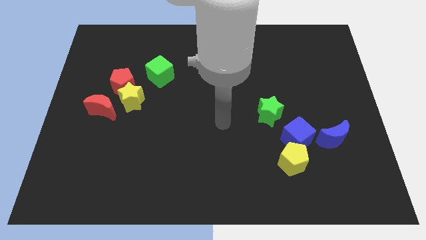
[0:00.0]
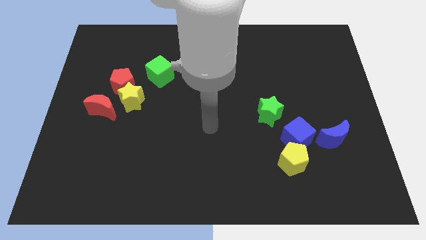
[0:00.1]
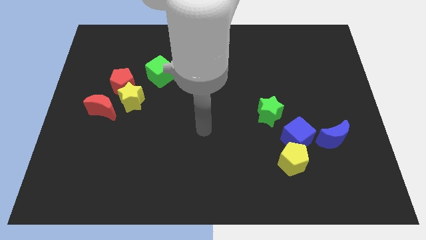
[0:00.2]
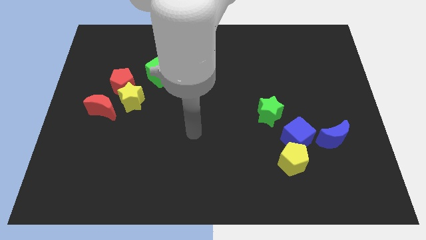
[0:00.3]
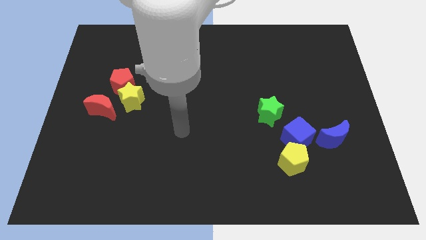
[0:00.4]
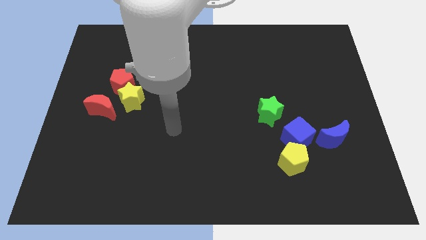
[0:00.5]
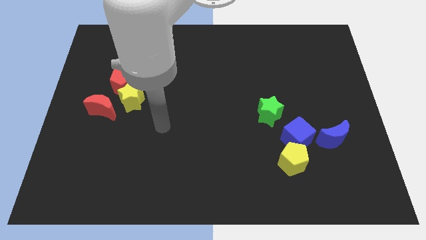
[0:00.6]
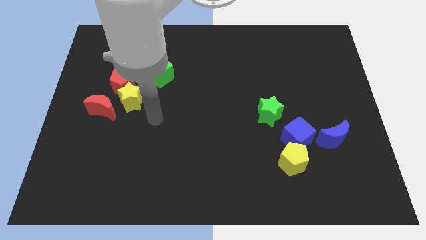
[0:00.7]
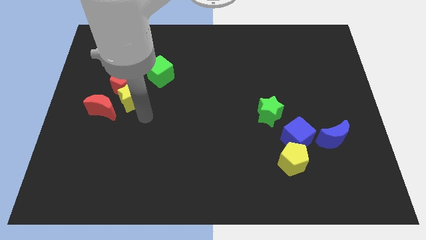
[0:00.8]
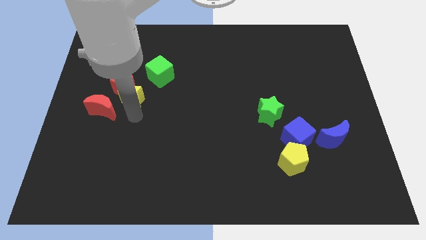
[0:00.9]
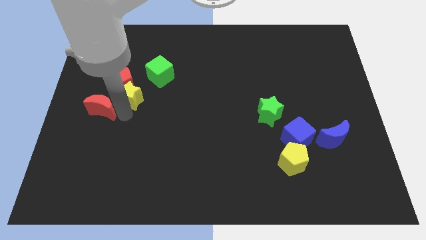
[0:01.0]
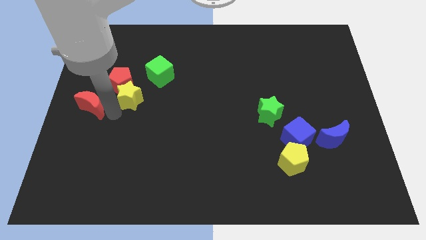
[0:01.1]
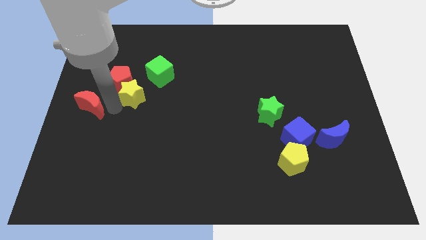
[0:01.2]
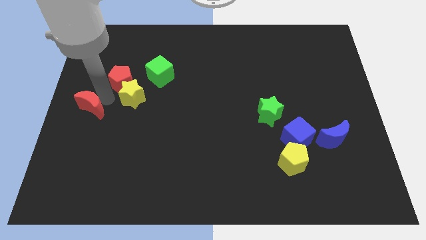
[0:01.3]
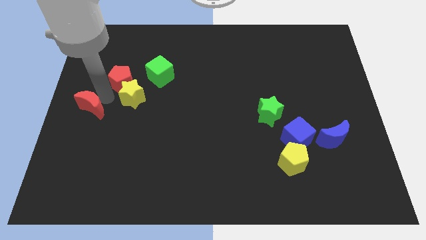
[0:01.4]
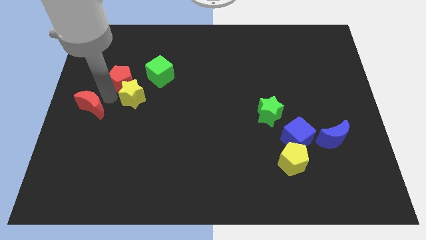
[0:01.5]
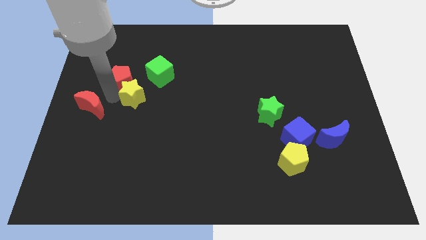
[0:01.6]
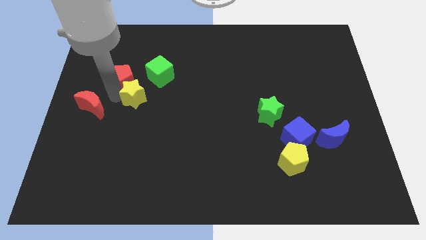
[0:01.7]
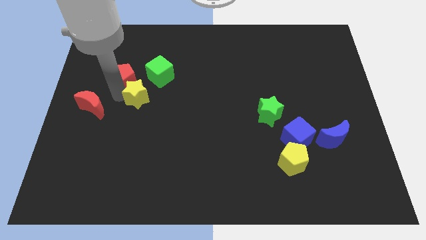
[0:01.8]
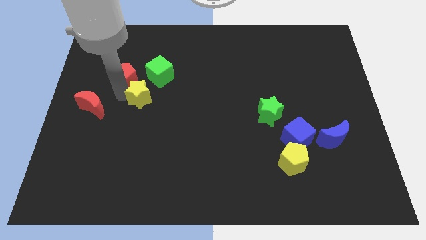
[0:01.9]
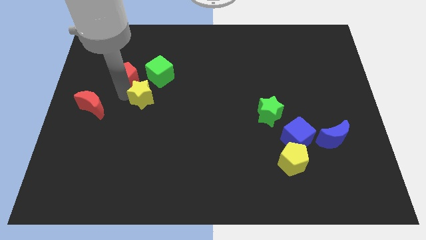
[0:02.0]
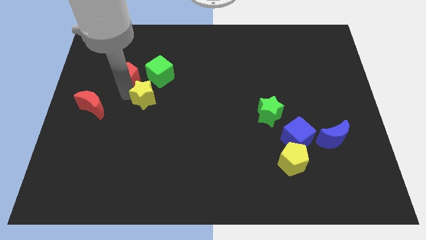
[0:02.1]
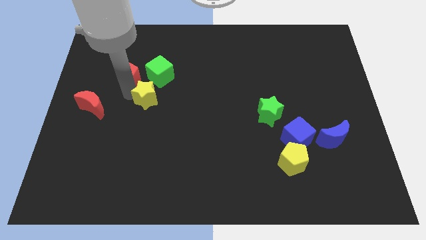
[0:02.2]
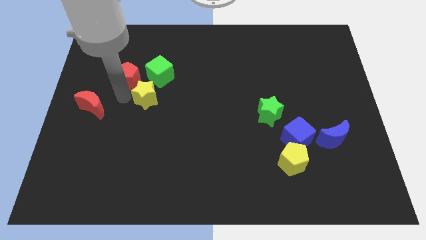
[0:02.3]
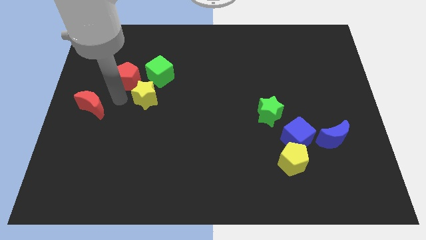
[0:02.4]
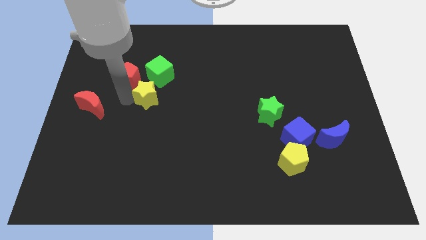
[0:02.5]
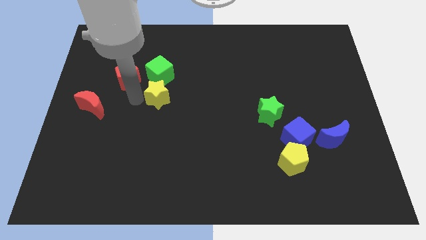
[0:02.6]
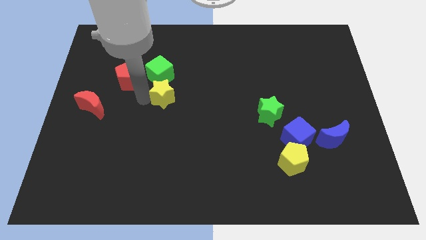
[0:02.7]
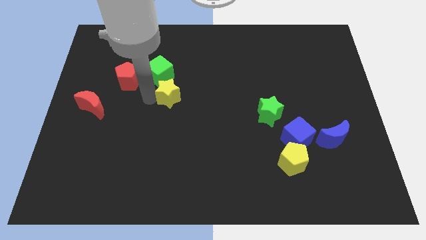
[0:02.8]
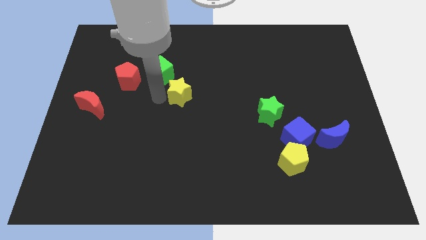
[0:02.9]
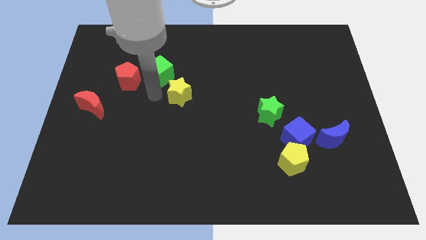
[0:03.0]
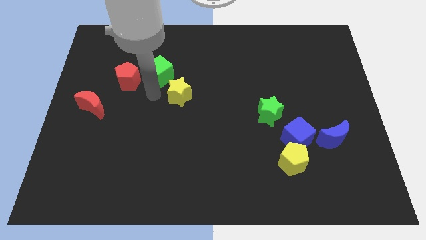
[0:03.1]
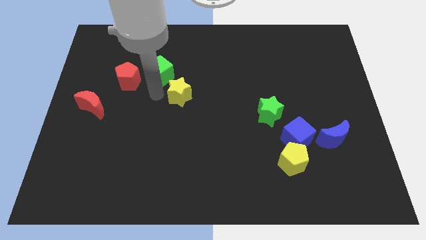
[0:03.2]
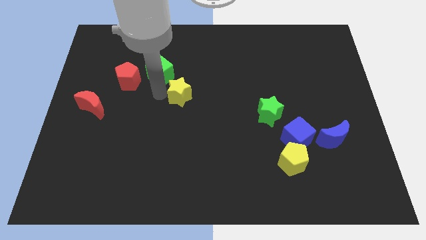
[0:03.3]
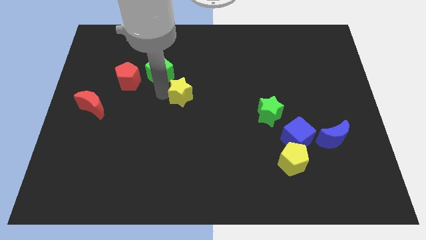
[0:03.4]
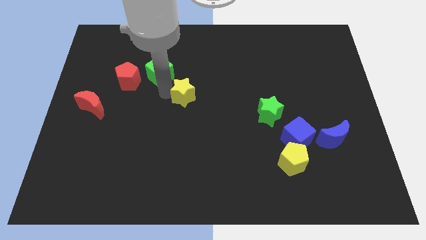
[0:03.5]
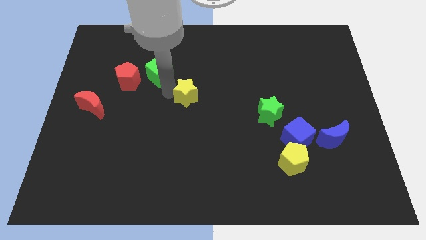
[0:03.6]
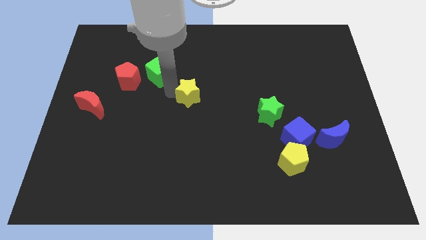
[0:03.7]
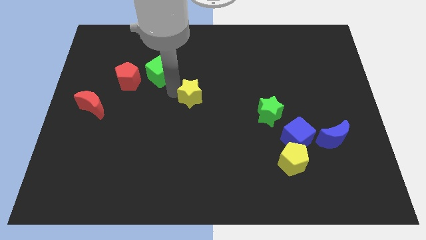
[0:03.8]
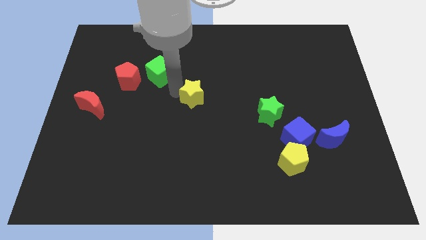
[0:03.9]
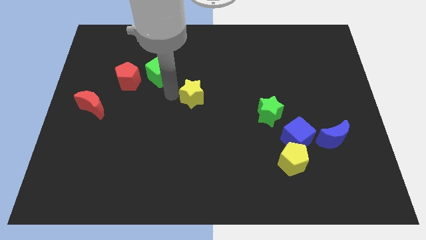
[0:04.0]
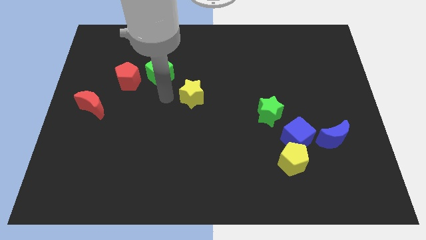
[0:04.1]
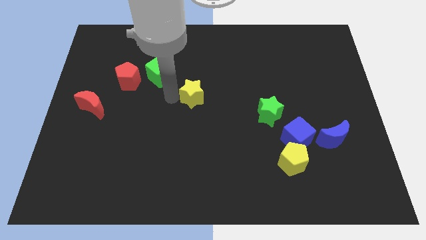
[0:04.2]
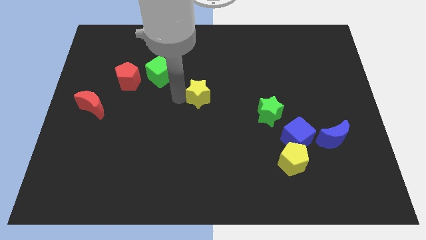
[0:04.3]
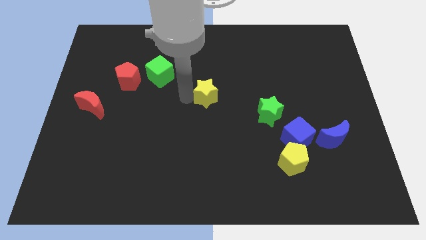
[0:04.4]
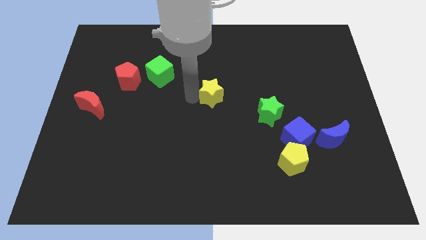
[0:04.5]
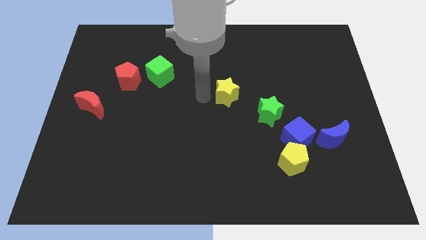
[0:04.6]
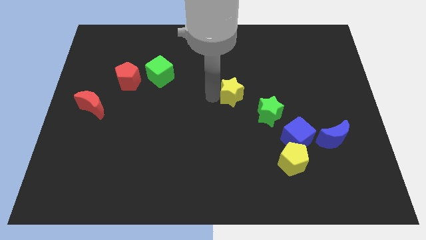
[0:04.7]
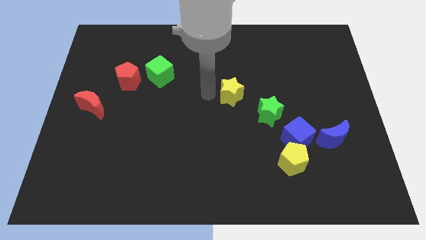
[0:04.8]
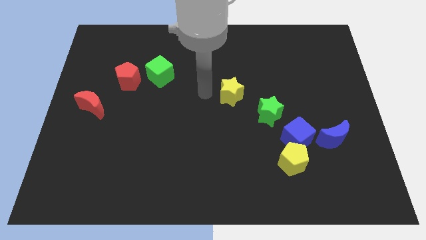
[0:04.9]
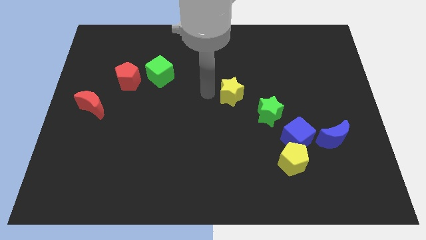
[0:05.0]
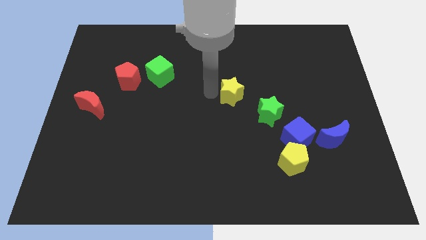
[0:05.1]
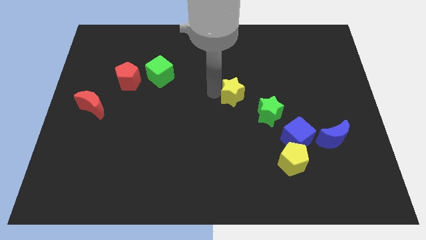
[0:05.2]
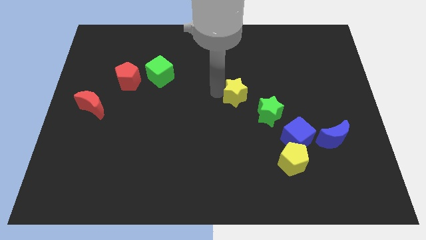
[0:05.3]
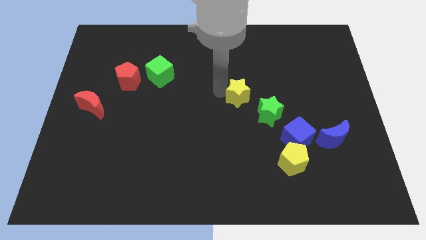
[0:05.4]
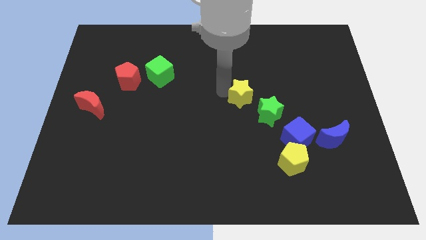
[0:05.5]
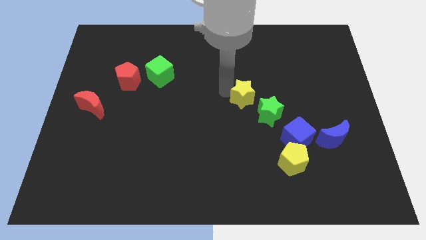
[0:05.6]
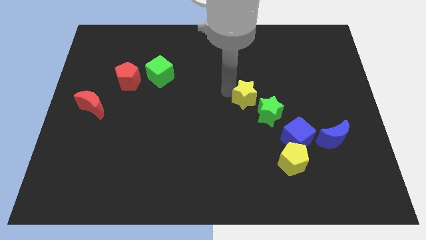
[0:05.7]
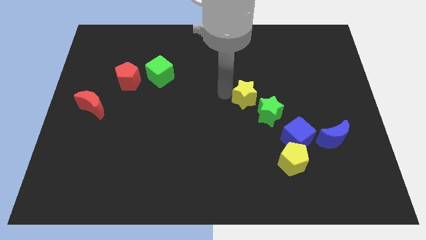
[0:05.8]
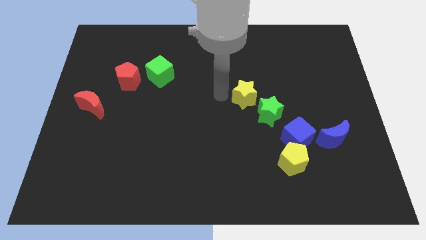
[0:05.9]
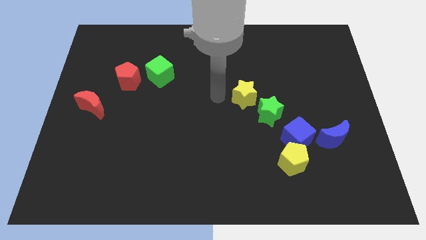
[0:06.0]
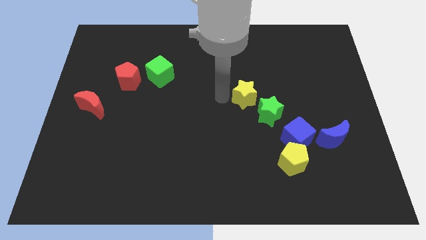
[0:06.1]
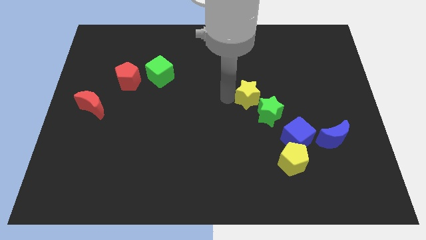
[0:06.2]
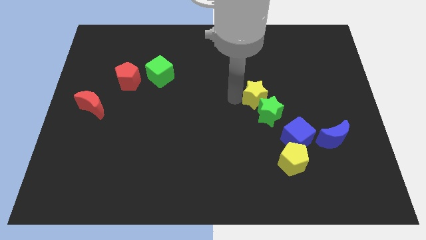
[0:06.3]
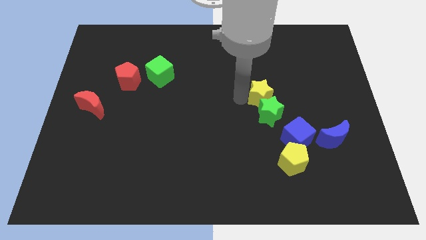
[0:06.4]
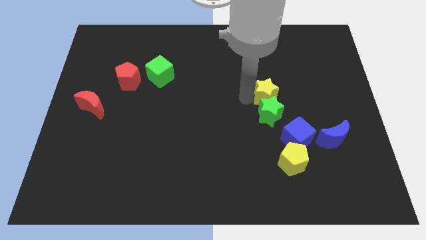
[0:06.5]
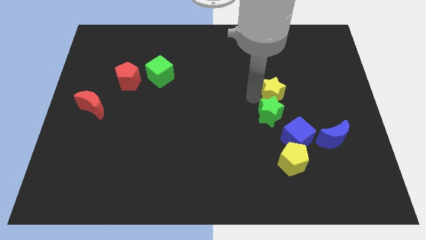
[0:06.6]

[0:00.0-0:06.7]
put the yellow star above the blue cube

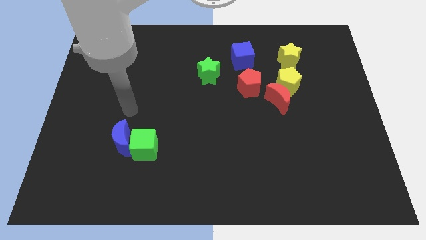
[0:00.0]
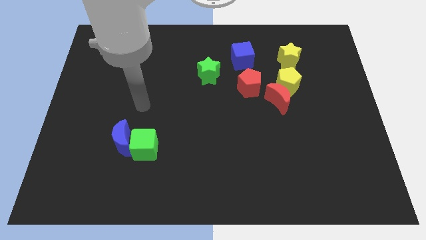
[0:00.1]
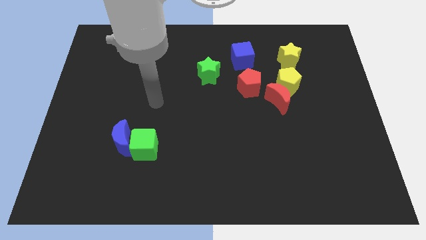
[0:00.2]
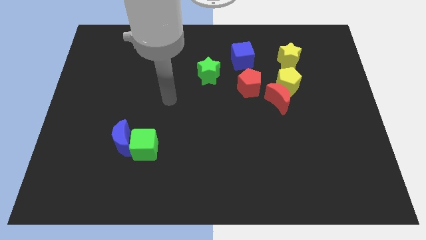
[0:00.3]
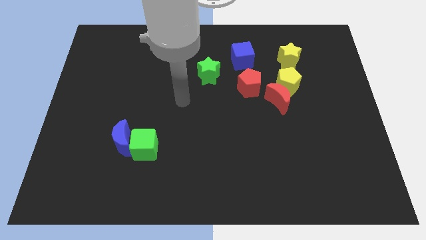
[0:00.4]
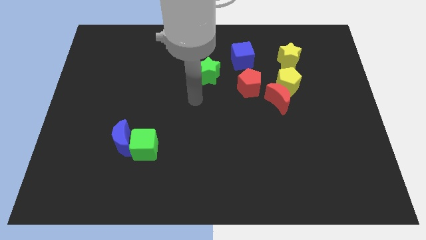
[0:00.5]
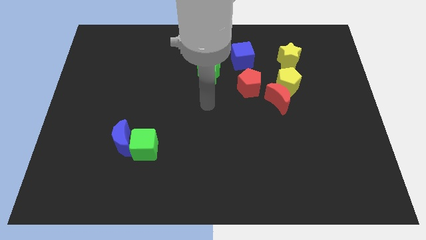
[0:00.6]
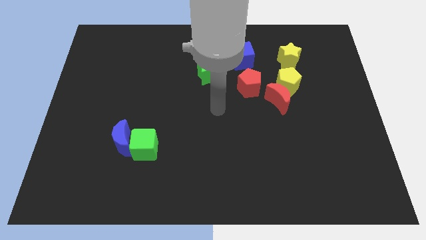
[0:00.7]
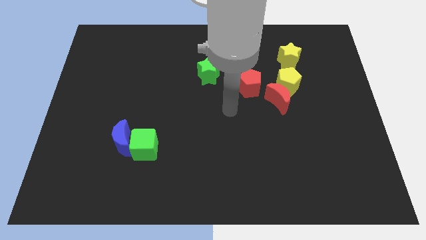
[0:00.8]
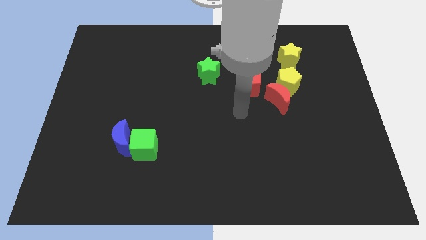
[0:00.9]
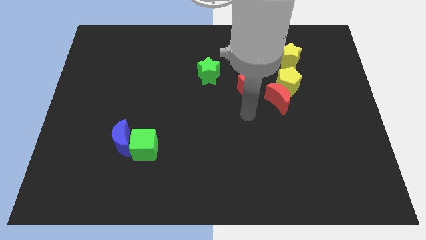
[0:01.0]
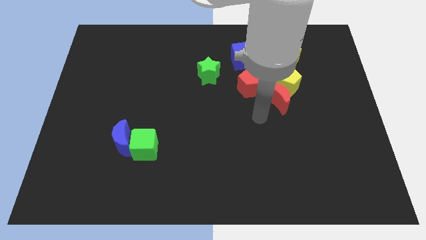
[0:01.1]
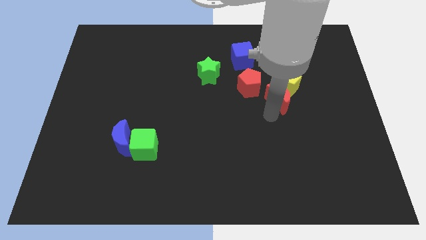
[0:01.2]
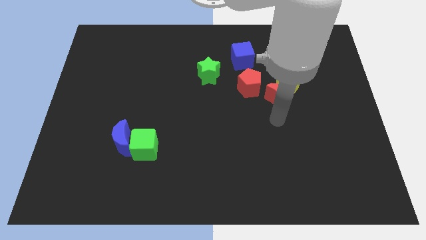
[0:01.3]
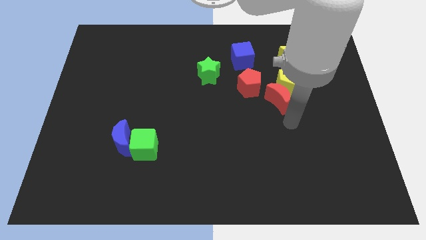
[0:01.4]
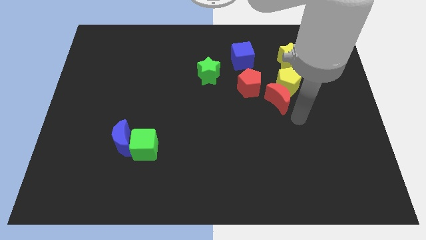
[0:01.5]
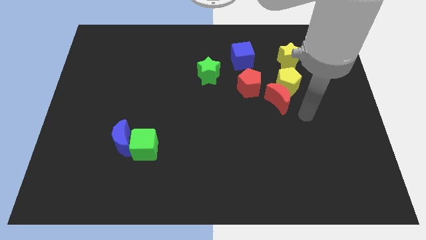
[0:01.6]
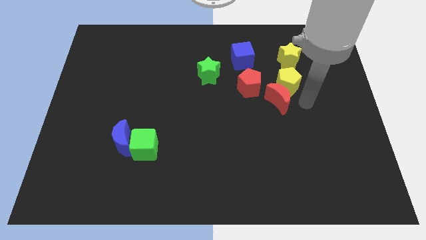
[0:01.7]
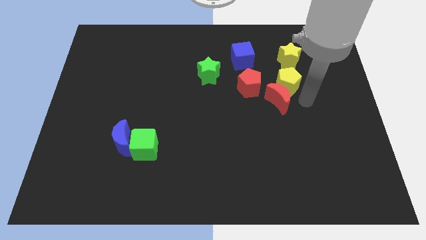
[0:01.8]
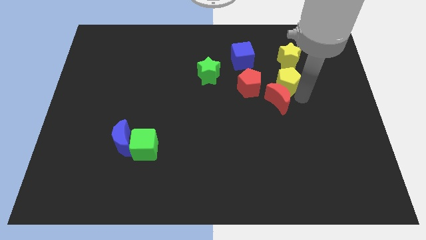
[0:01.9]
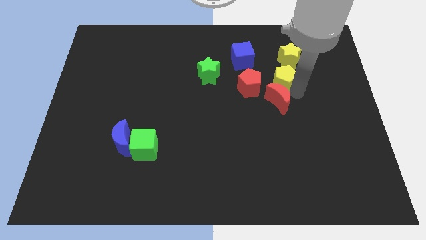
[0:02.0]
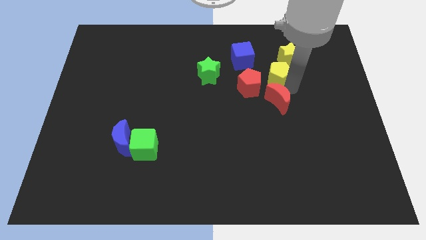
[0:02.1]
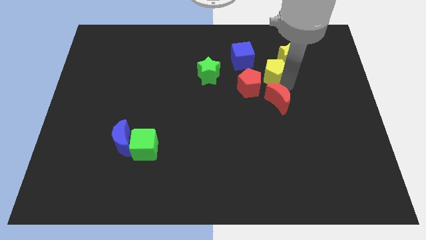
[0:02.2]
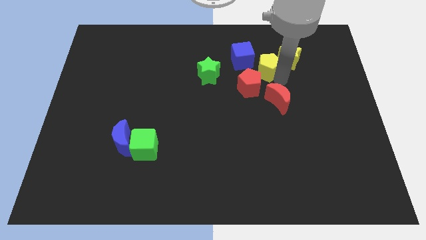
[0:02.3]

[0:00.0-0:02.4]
slide the yellow pentagon above the red pentagon
